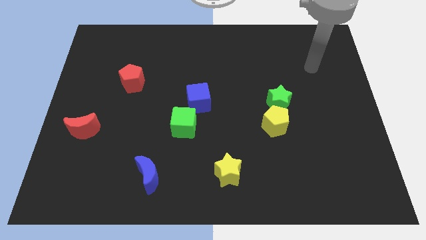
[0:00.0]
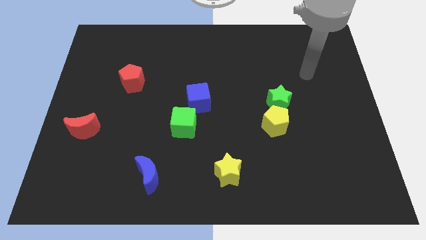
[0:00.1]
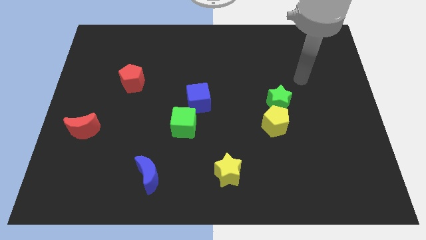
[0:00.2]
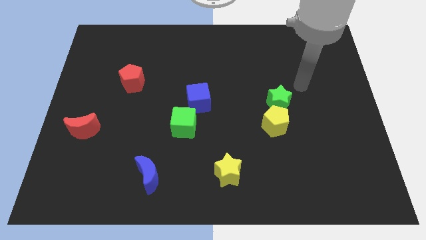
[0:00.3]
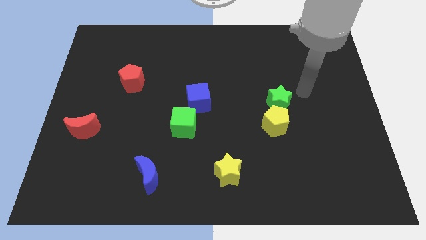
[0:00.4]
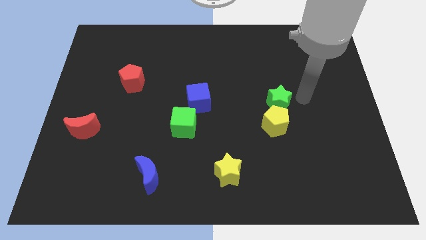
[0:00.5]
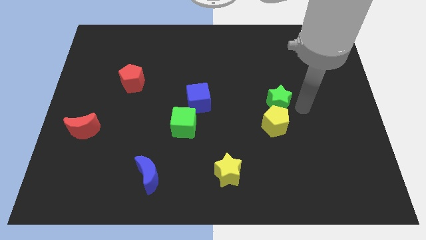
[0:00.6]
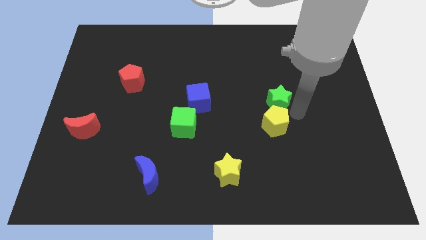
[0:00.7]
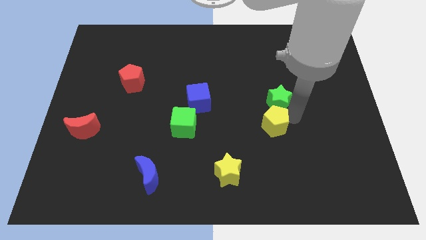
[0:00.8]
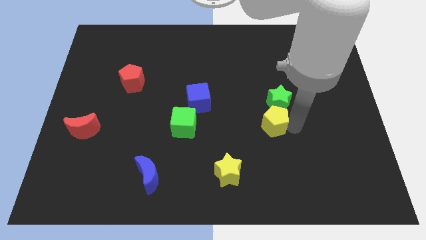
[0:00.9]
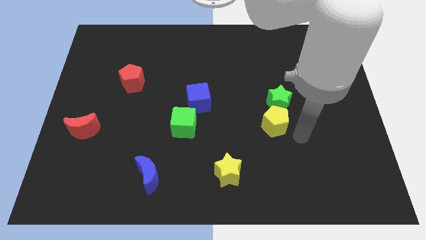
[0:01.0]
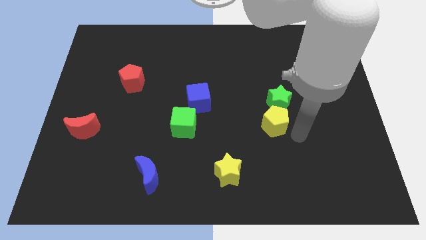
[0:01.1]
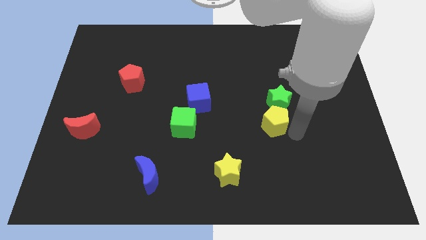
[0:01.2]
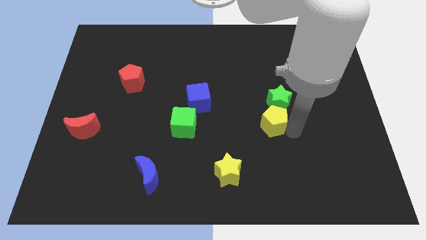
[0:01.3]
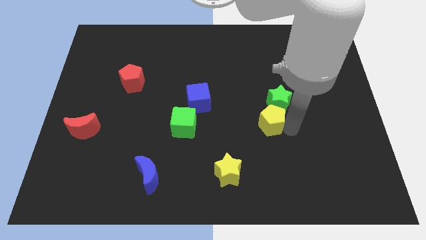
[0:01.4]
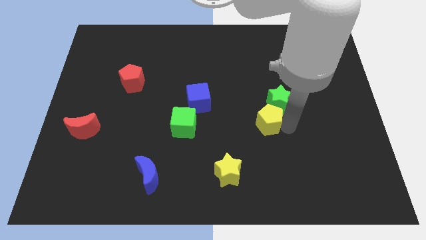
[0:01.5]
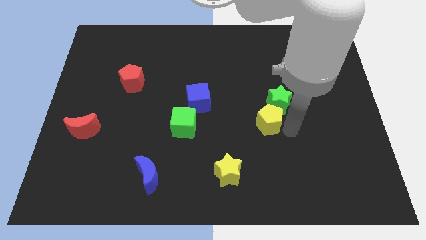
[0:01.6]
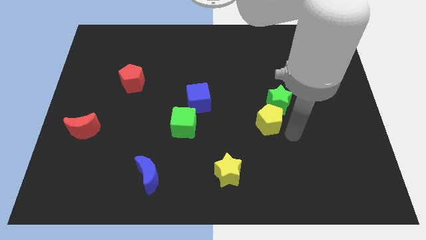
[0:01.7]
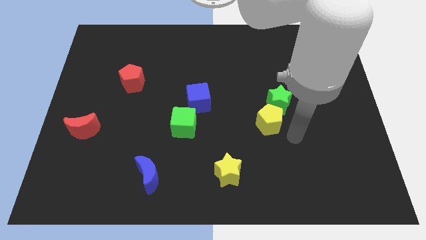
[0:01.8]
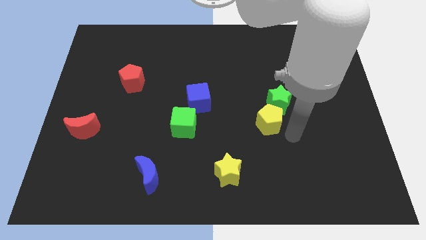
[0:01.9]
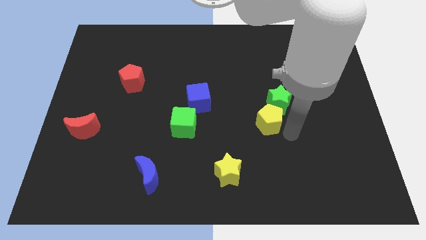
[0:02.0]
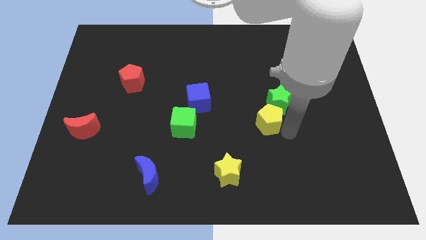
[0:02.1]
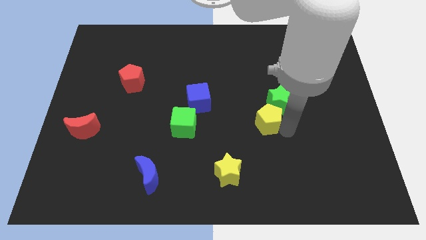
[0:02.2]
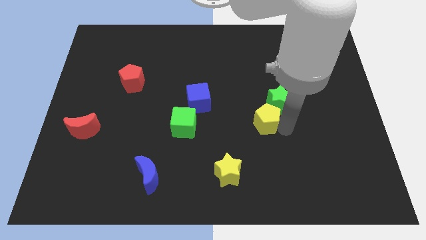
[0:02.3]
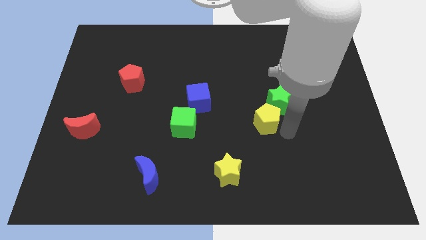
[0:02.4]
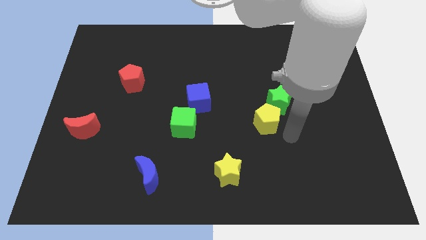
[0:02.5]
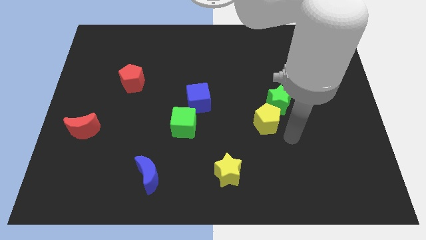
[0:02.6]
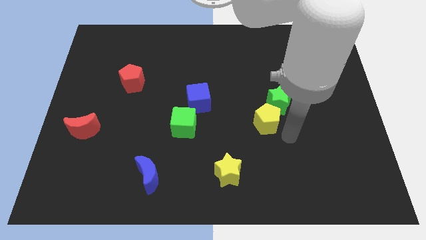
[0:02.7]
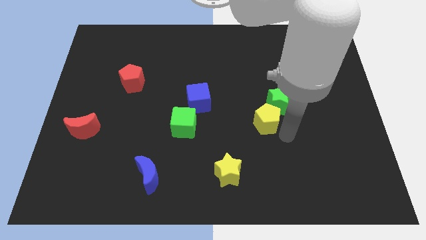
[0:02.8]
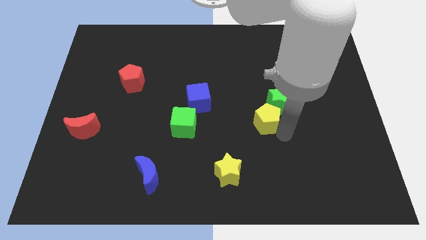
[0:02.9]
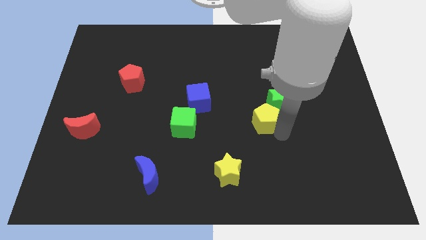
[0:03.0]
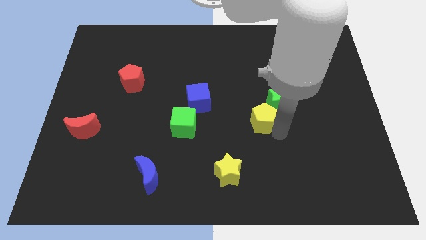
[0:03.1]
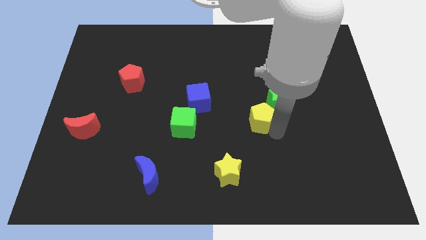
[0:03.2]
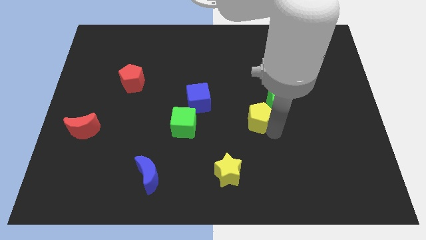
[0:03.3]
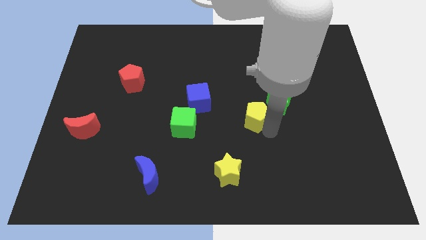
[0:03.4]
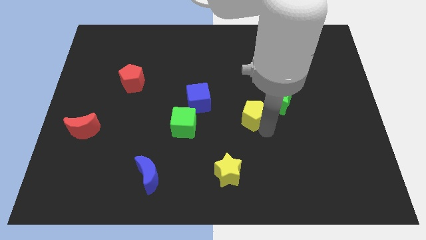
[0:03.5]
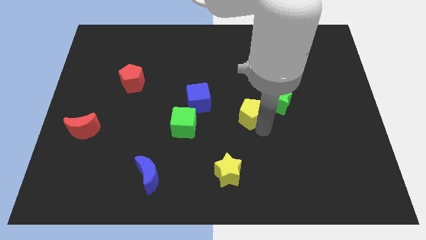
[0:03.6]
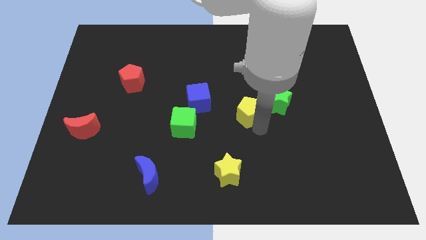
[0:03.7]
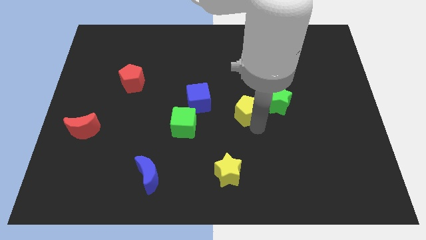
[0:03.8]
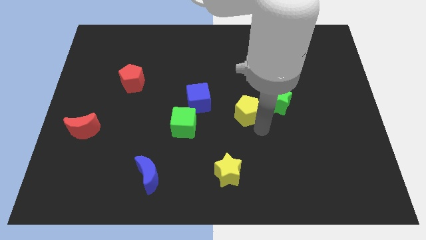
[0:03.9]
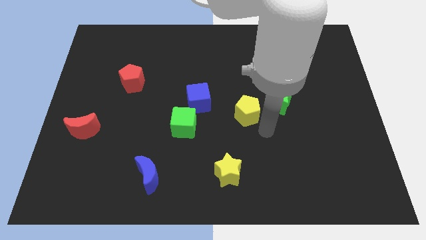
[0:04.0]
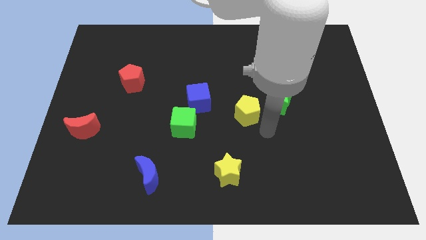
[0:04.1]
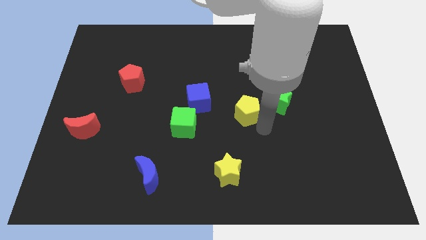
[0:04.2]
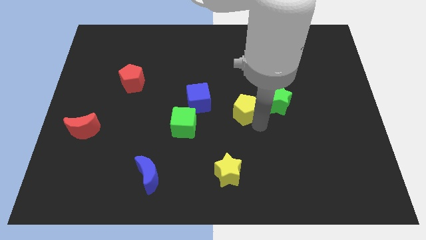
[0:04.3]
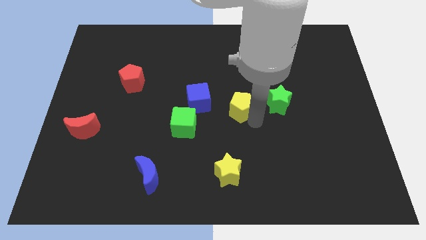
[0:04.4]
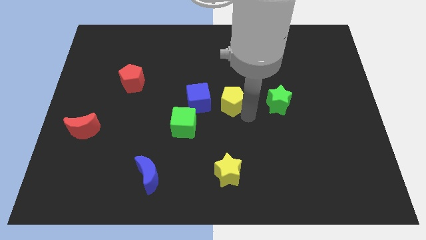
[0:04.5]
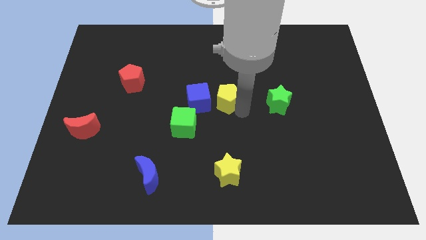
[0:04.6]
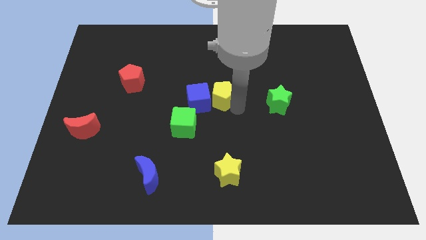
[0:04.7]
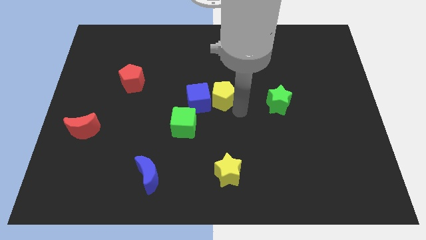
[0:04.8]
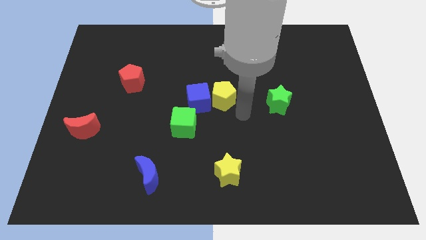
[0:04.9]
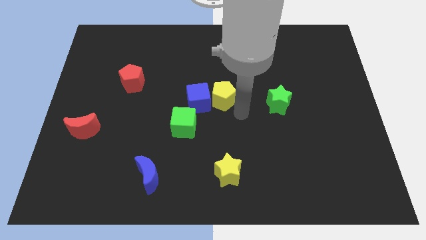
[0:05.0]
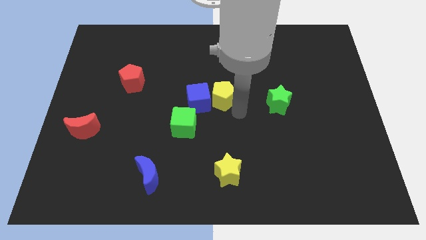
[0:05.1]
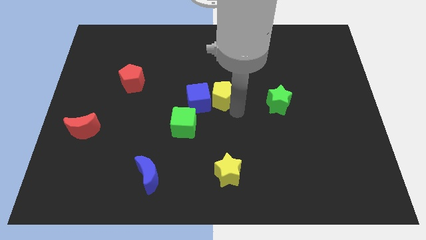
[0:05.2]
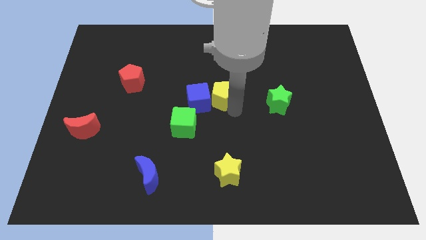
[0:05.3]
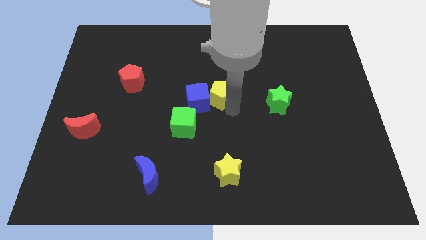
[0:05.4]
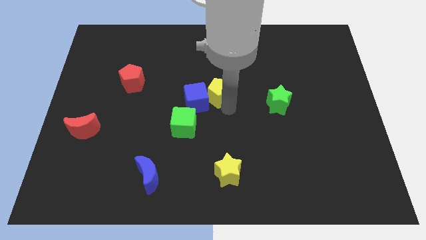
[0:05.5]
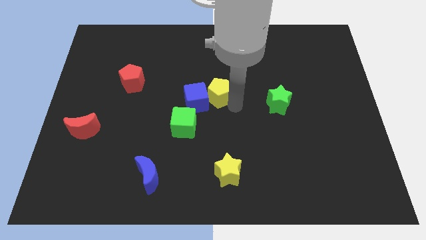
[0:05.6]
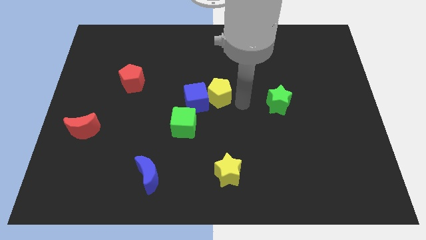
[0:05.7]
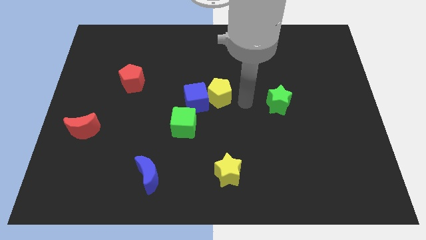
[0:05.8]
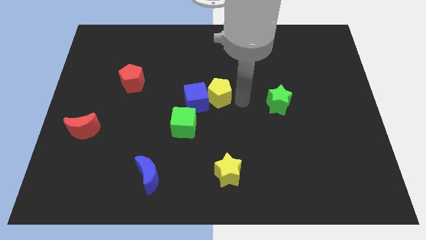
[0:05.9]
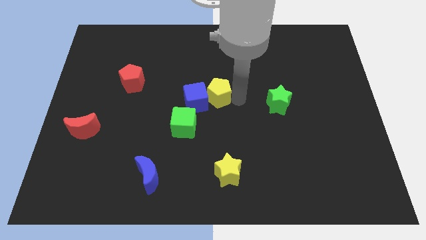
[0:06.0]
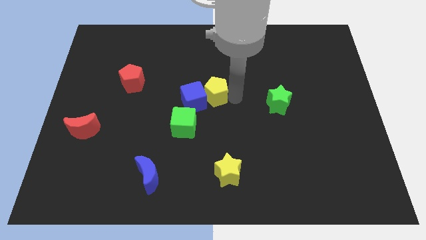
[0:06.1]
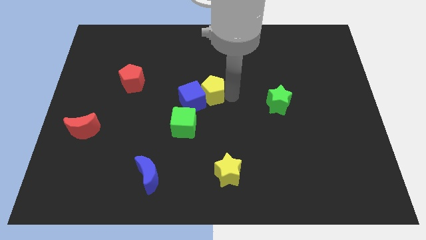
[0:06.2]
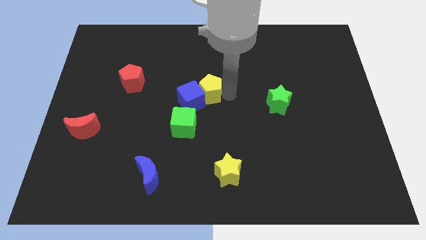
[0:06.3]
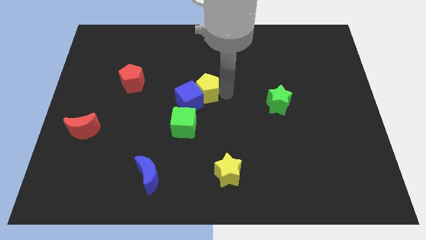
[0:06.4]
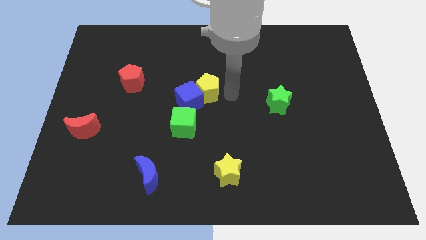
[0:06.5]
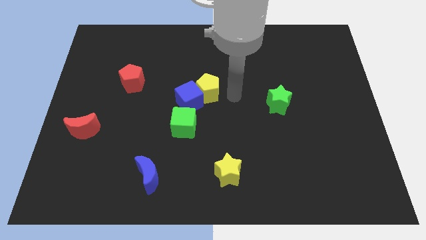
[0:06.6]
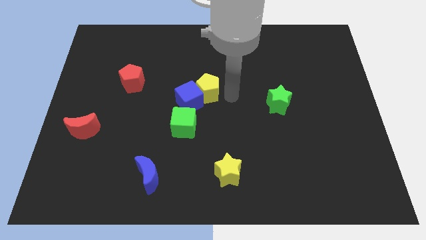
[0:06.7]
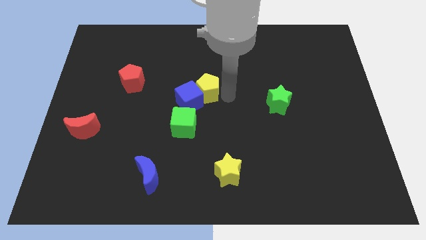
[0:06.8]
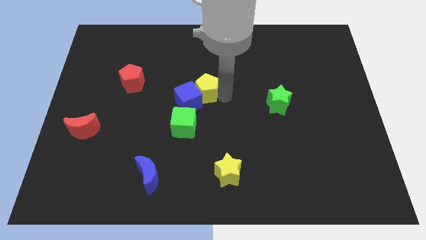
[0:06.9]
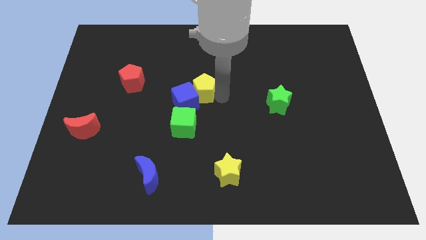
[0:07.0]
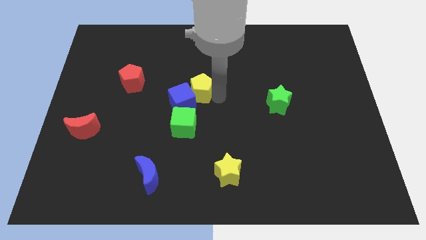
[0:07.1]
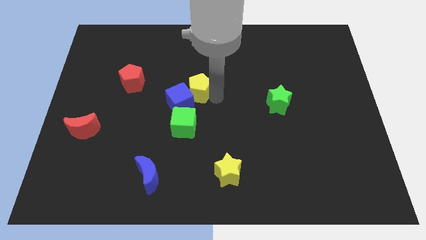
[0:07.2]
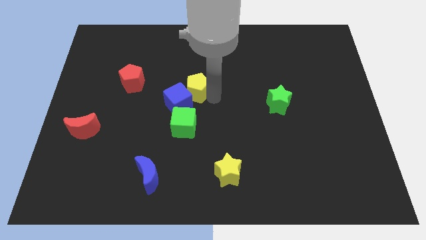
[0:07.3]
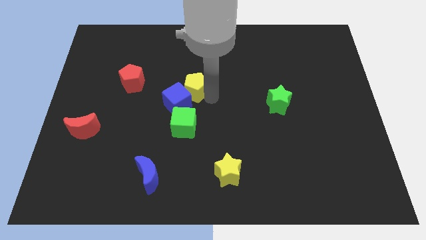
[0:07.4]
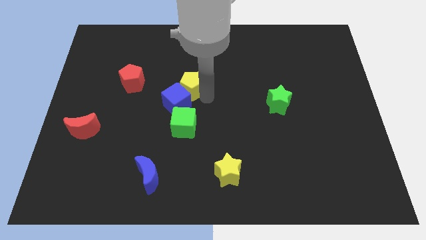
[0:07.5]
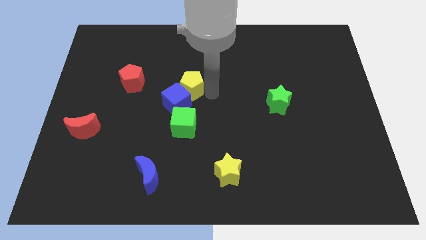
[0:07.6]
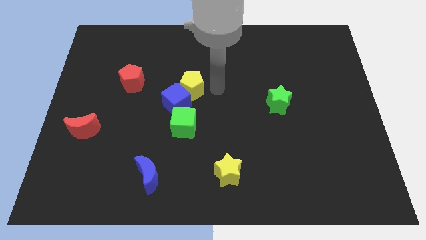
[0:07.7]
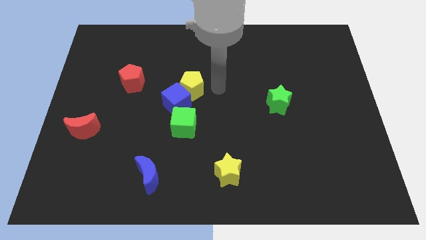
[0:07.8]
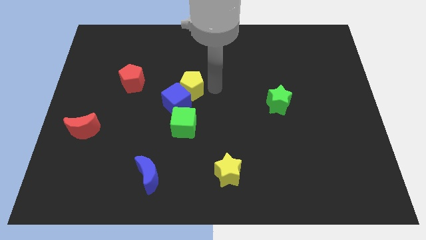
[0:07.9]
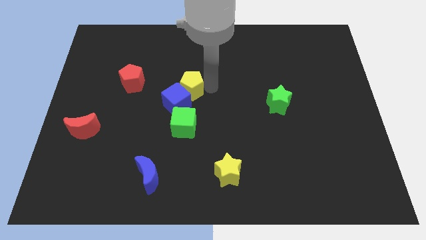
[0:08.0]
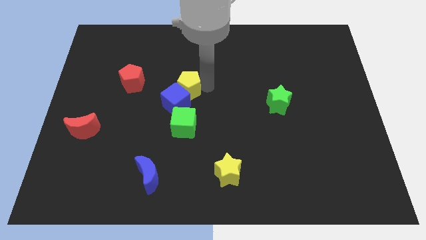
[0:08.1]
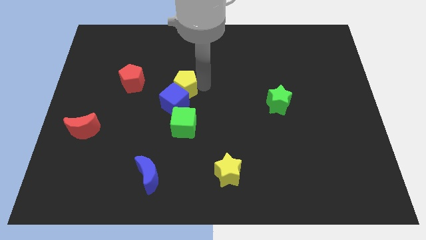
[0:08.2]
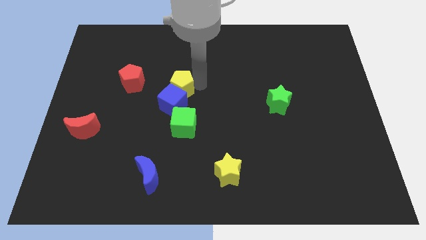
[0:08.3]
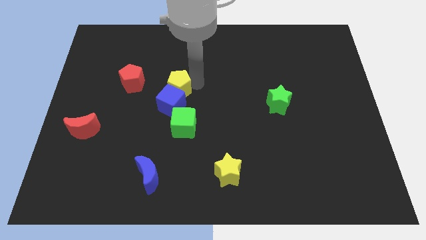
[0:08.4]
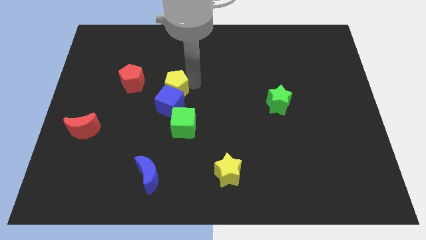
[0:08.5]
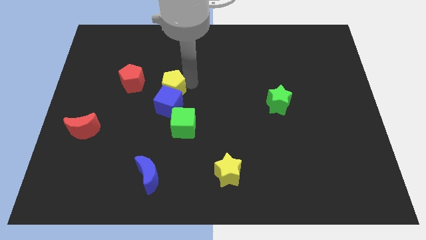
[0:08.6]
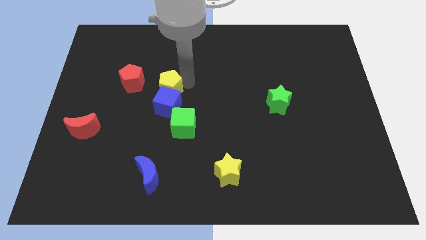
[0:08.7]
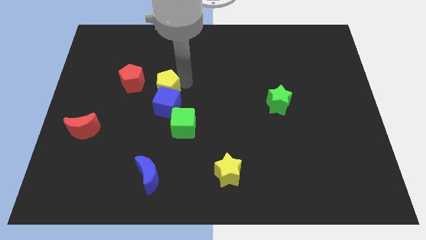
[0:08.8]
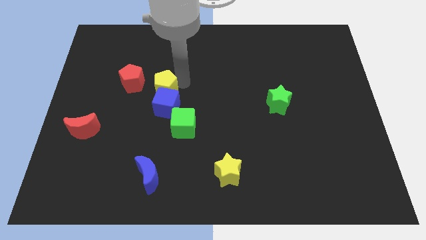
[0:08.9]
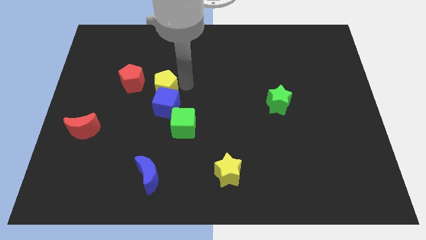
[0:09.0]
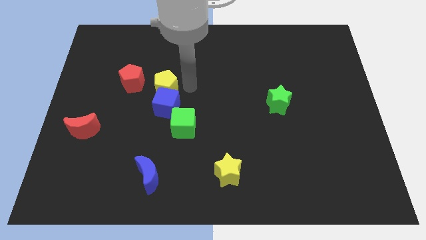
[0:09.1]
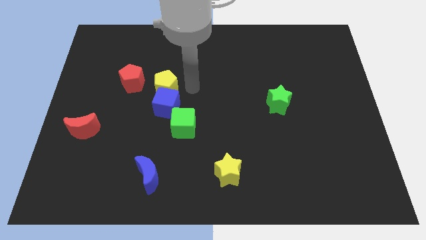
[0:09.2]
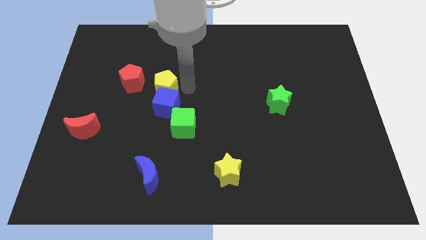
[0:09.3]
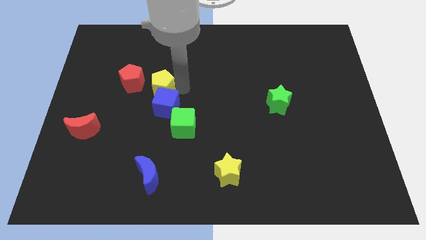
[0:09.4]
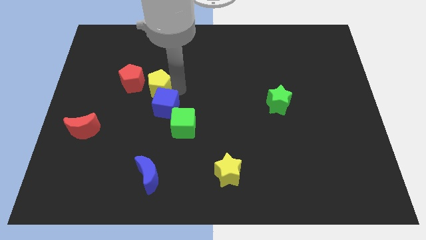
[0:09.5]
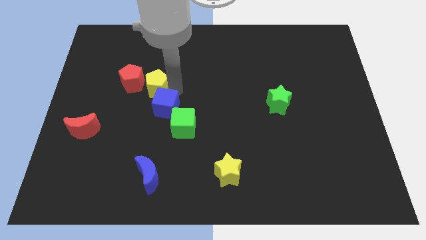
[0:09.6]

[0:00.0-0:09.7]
move the yellow pentagon close to the red pentagon
